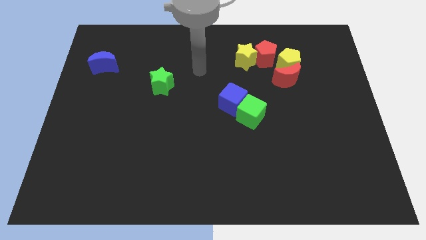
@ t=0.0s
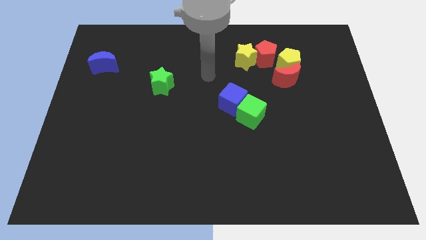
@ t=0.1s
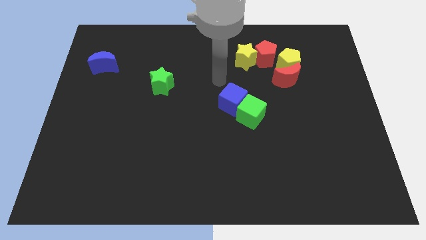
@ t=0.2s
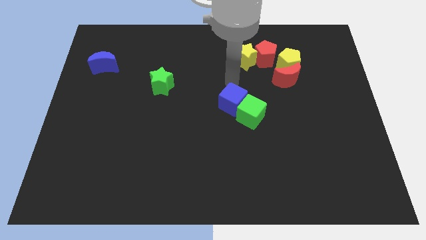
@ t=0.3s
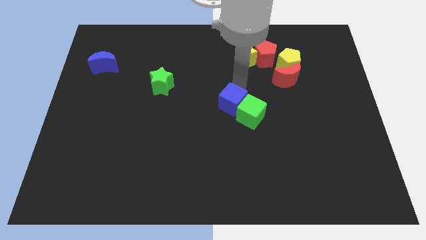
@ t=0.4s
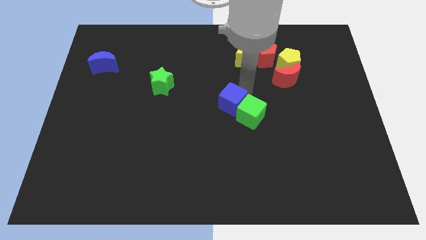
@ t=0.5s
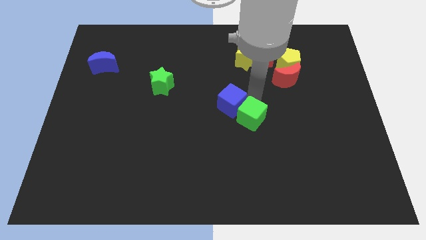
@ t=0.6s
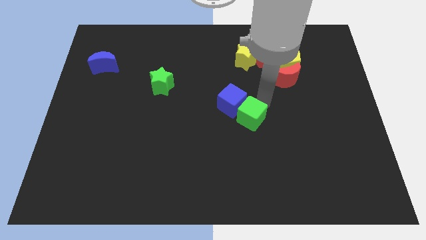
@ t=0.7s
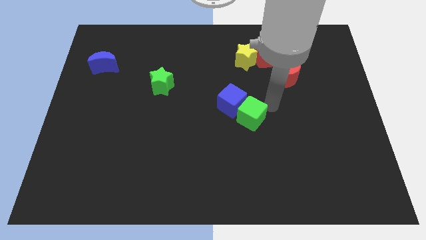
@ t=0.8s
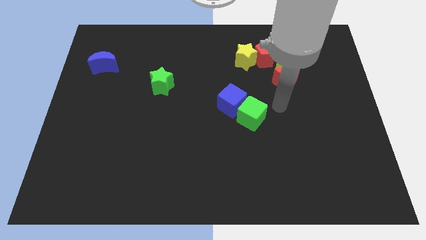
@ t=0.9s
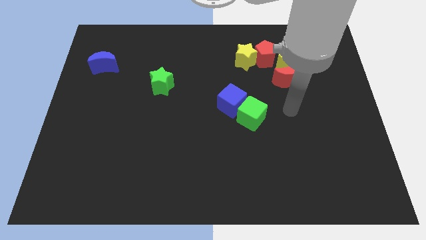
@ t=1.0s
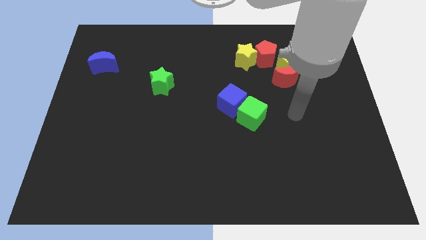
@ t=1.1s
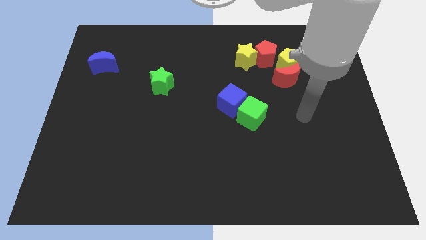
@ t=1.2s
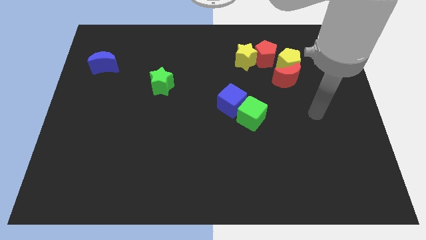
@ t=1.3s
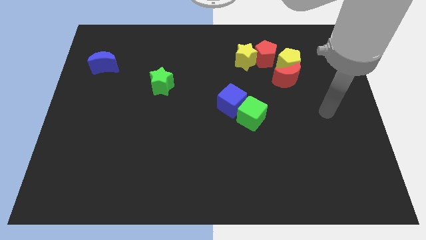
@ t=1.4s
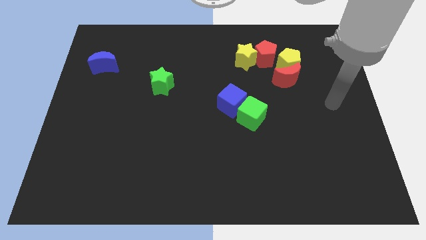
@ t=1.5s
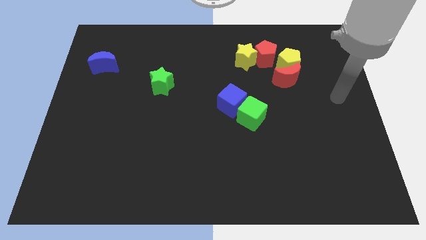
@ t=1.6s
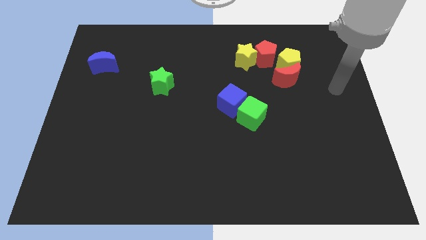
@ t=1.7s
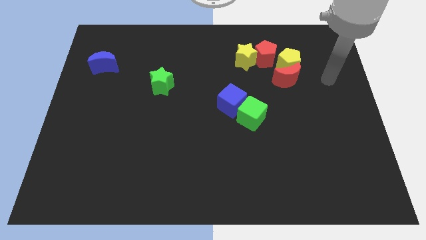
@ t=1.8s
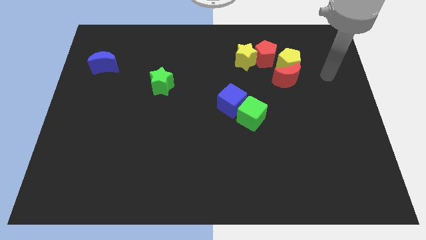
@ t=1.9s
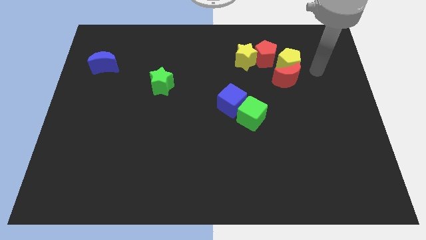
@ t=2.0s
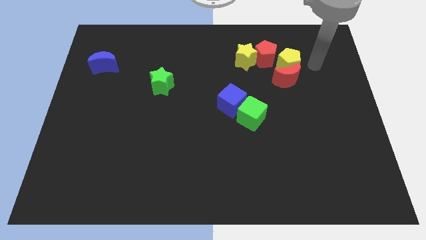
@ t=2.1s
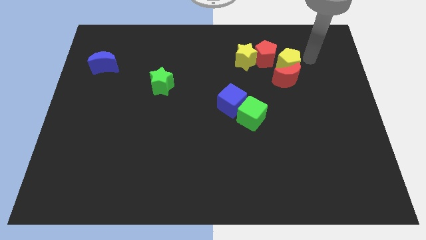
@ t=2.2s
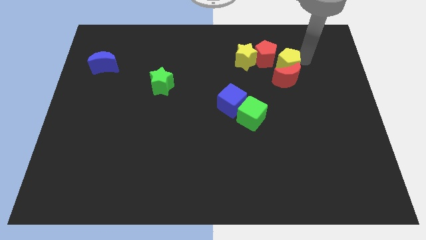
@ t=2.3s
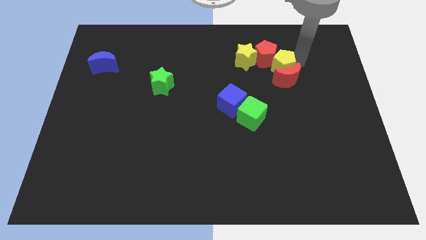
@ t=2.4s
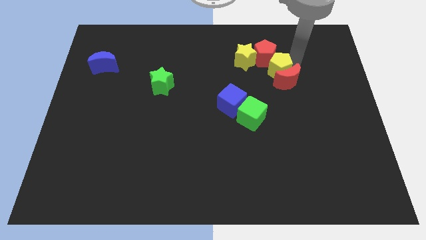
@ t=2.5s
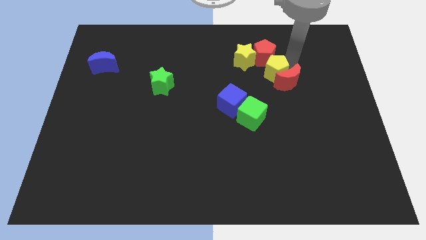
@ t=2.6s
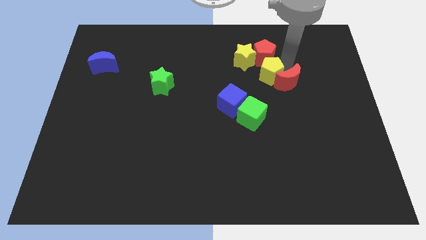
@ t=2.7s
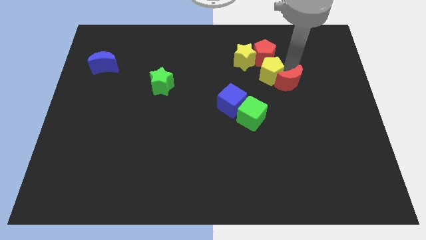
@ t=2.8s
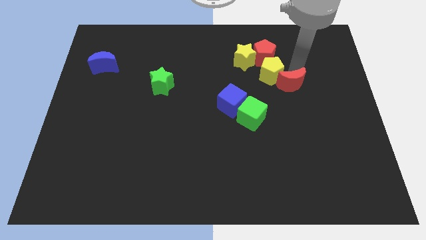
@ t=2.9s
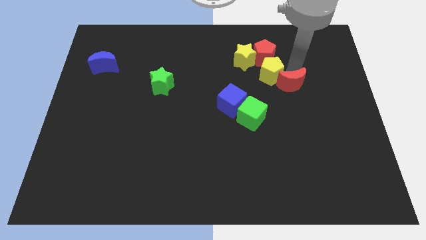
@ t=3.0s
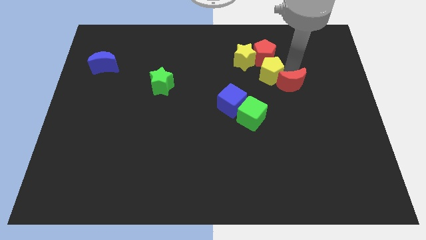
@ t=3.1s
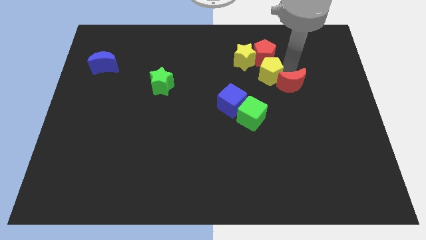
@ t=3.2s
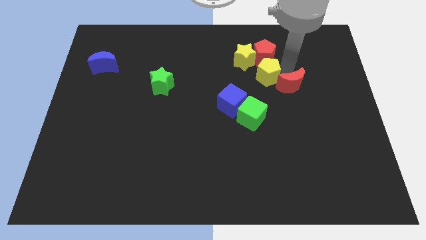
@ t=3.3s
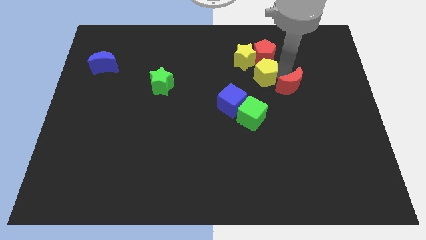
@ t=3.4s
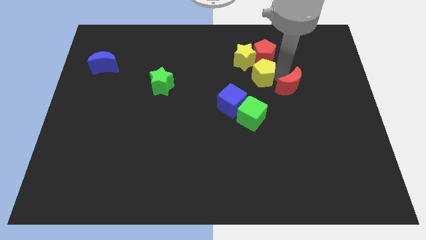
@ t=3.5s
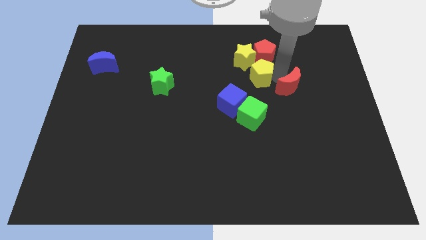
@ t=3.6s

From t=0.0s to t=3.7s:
slide the yellow pentagon to the left slightly

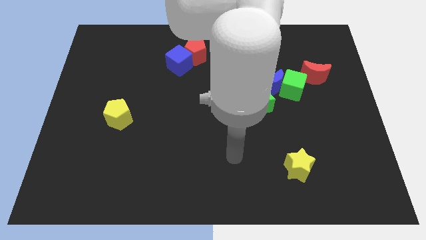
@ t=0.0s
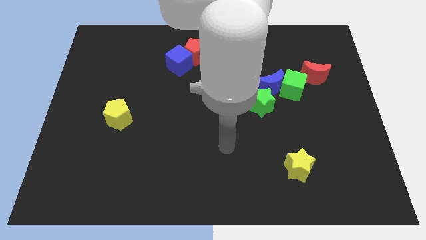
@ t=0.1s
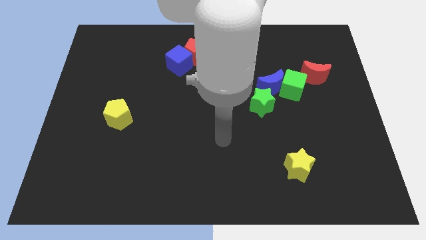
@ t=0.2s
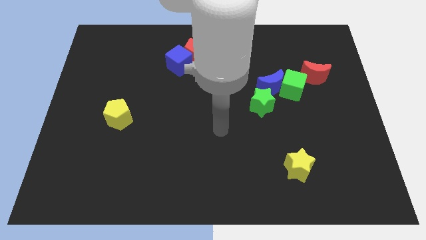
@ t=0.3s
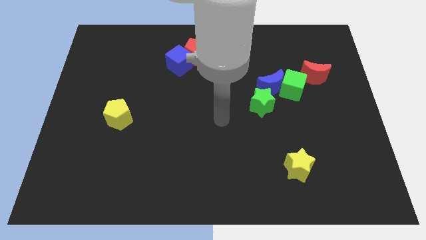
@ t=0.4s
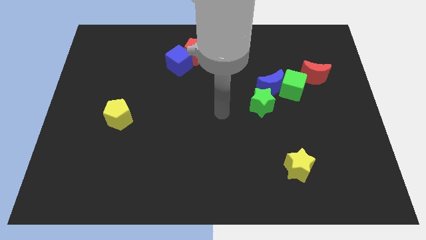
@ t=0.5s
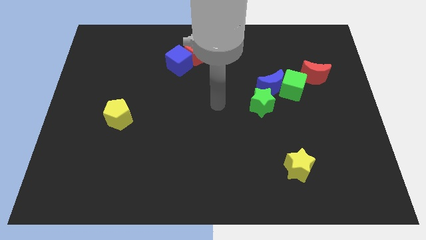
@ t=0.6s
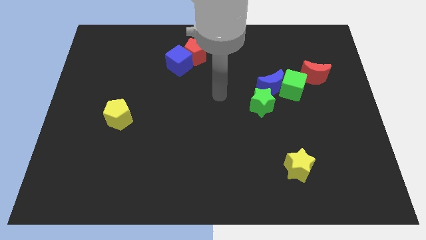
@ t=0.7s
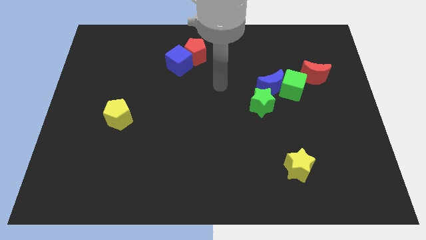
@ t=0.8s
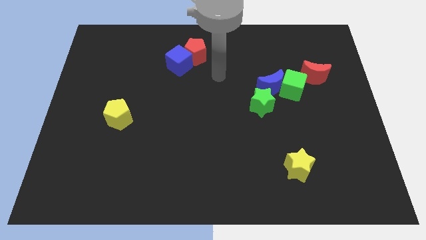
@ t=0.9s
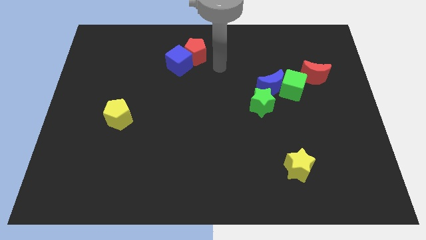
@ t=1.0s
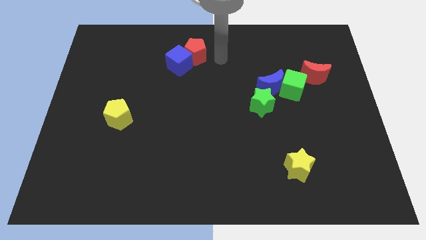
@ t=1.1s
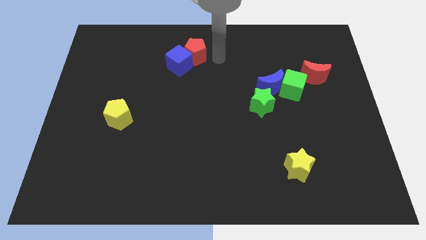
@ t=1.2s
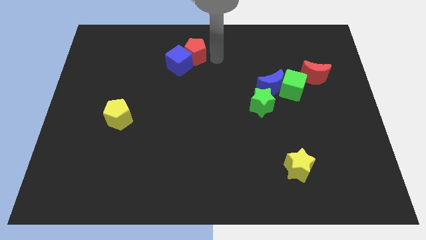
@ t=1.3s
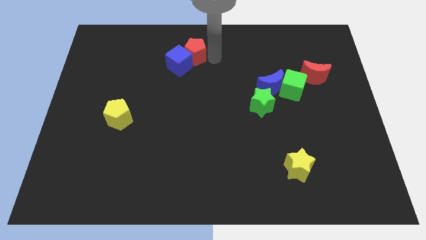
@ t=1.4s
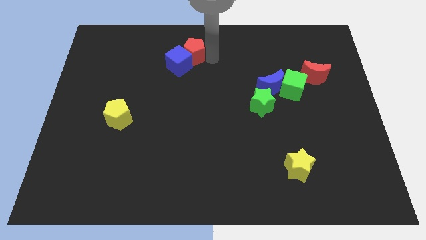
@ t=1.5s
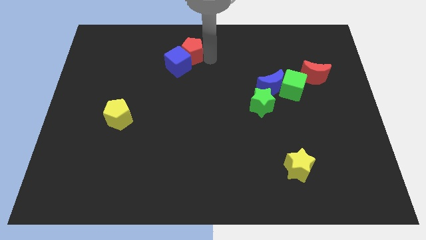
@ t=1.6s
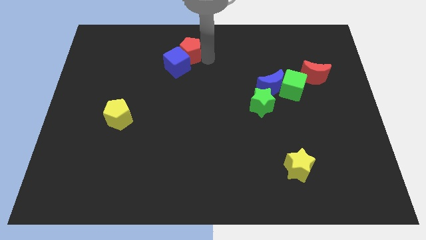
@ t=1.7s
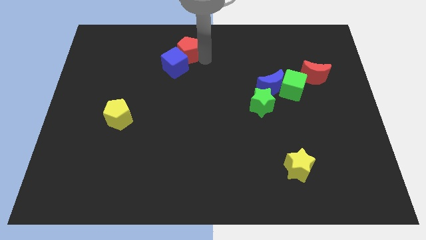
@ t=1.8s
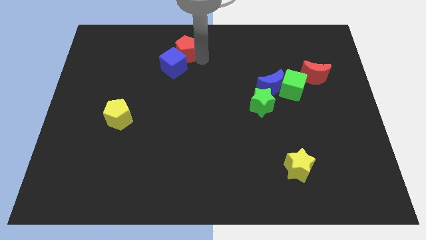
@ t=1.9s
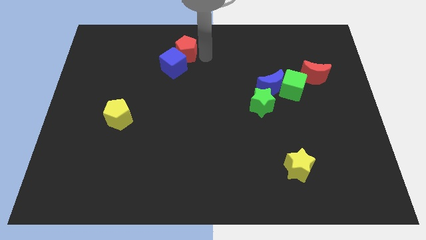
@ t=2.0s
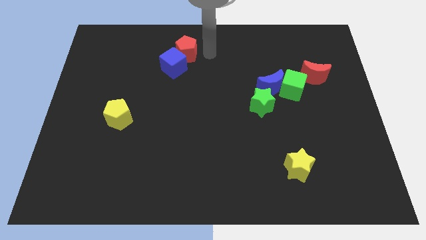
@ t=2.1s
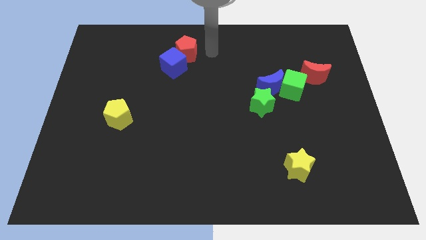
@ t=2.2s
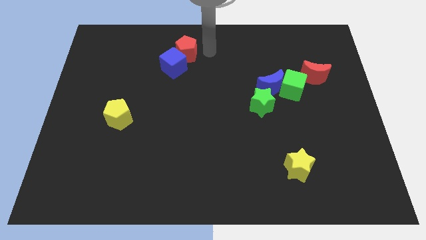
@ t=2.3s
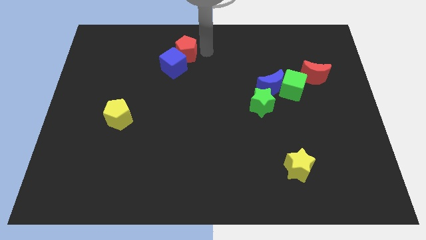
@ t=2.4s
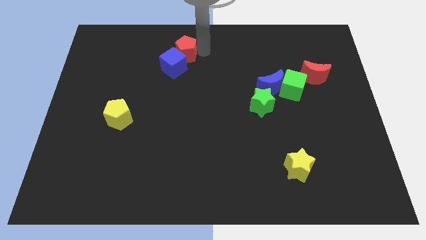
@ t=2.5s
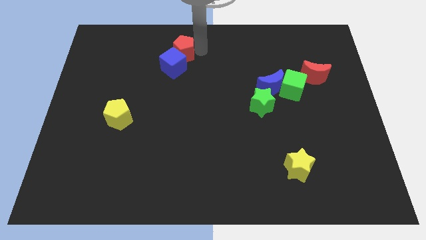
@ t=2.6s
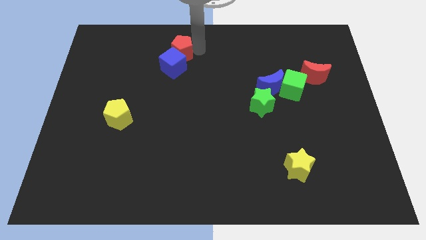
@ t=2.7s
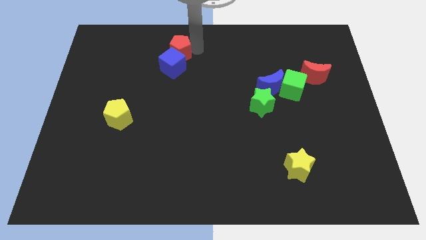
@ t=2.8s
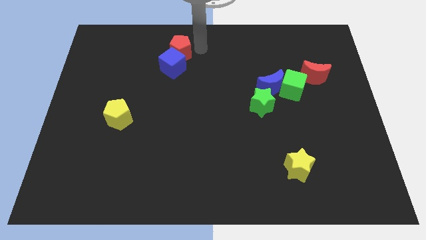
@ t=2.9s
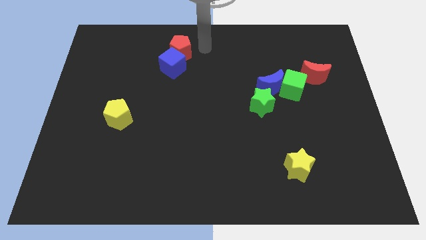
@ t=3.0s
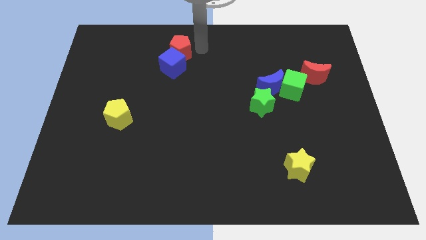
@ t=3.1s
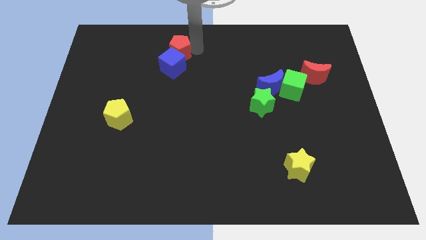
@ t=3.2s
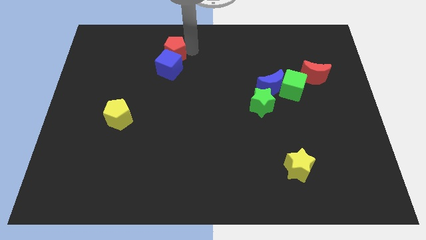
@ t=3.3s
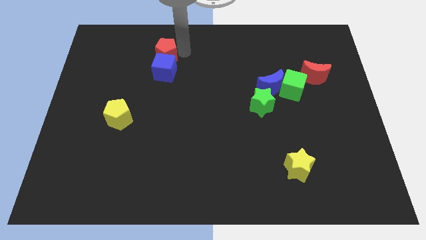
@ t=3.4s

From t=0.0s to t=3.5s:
slide the red pentagon somewhat to the left

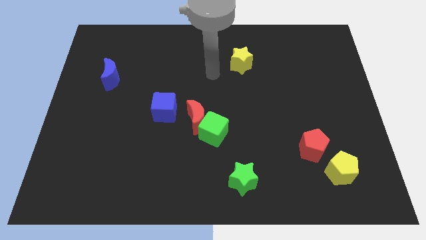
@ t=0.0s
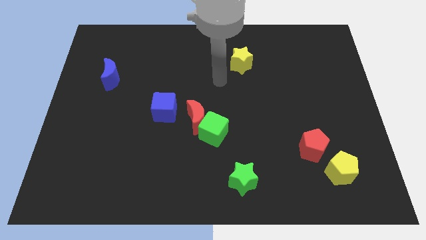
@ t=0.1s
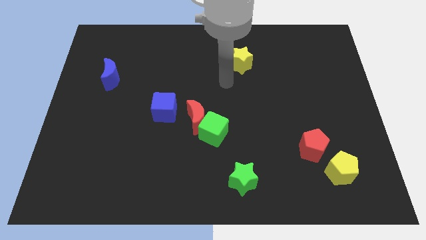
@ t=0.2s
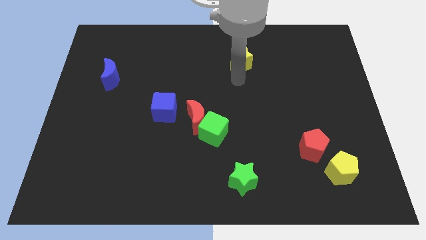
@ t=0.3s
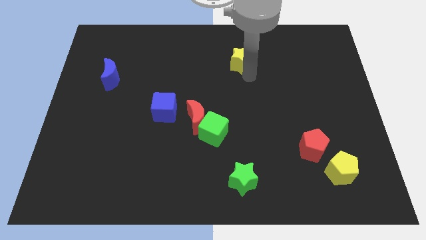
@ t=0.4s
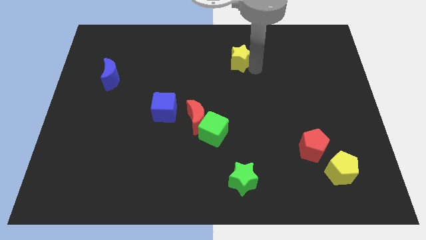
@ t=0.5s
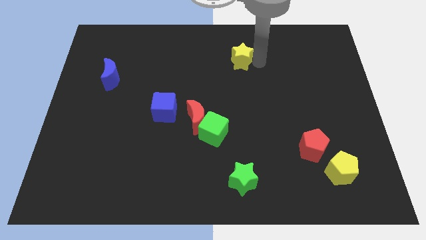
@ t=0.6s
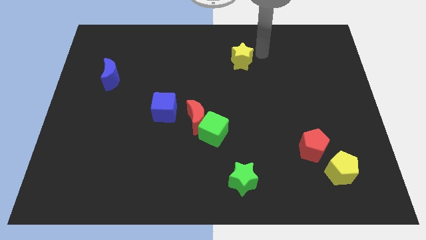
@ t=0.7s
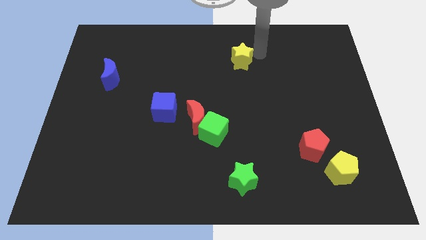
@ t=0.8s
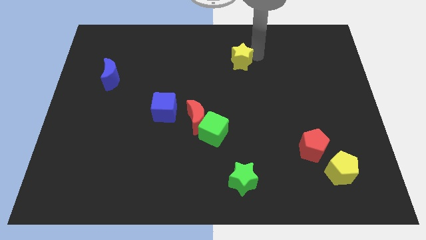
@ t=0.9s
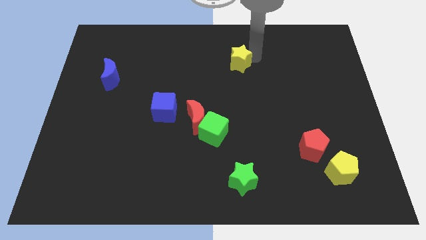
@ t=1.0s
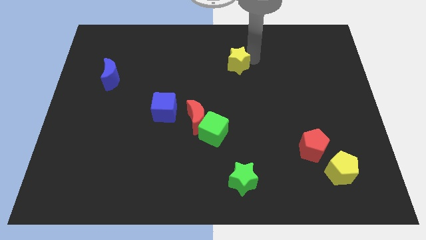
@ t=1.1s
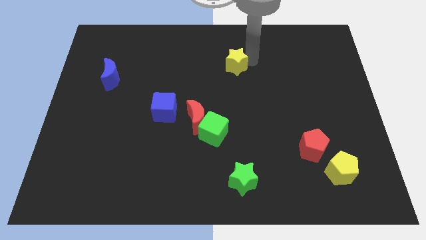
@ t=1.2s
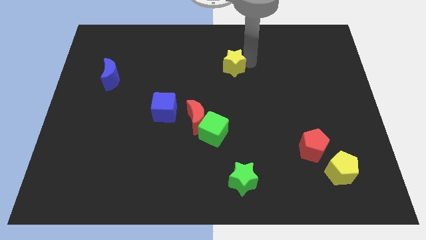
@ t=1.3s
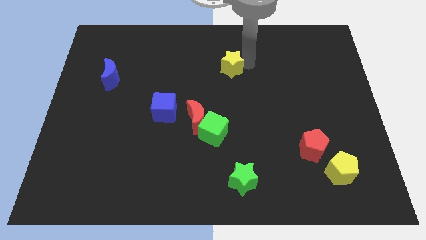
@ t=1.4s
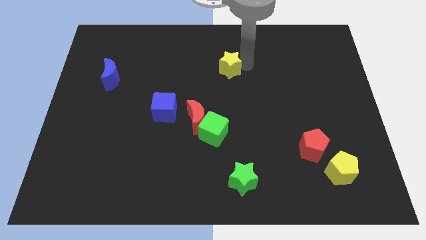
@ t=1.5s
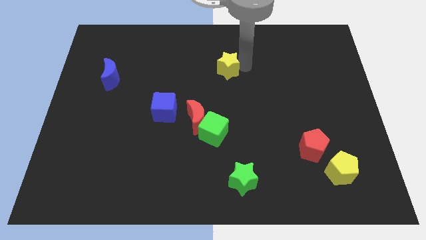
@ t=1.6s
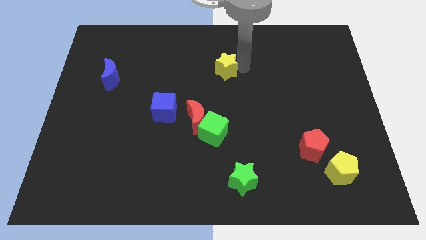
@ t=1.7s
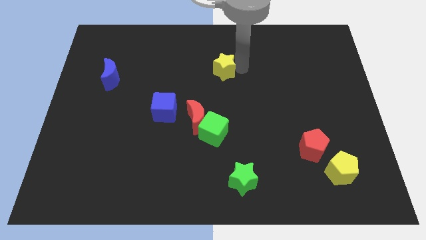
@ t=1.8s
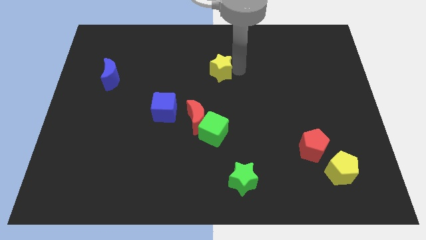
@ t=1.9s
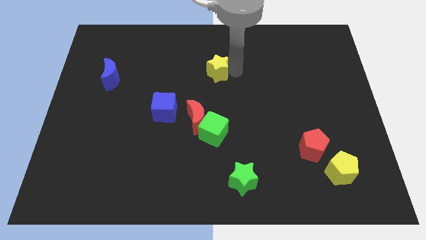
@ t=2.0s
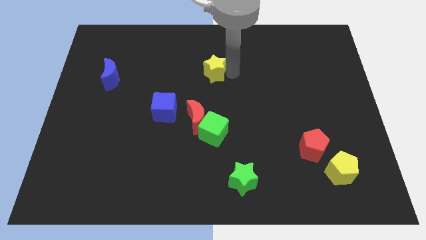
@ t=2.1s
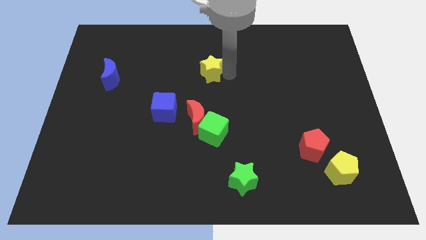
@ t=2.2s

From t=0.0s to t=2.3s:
slightly slide the yellow star to the left
